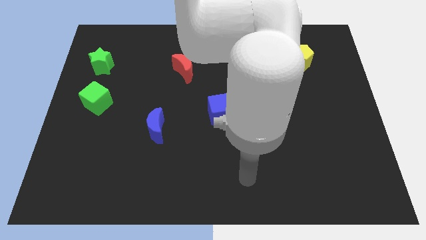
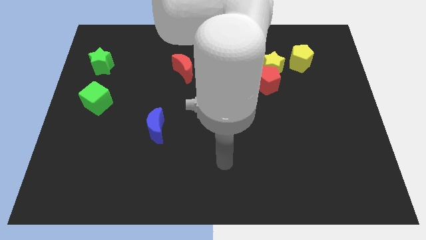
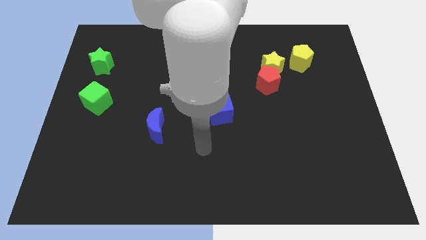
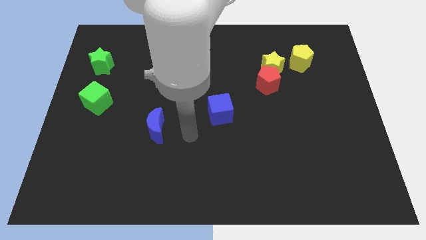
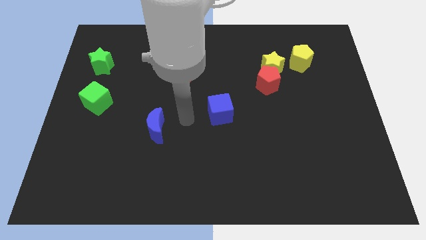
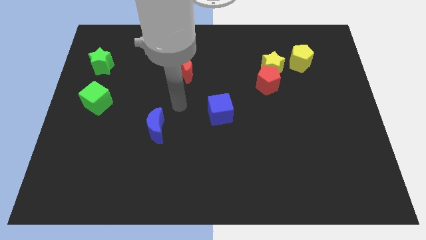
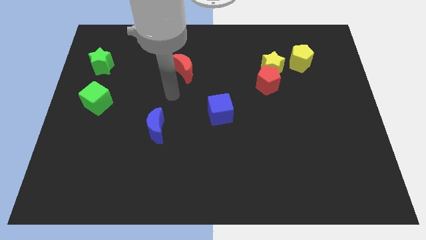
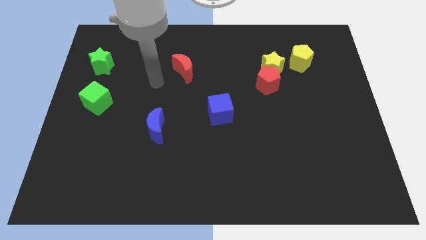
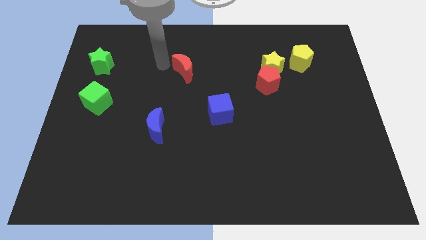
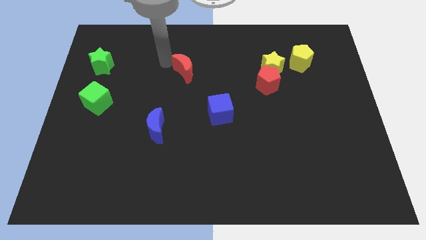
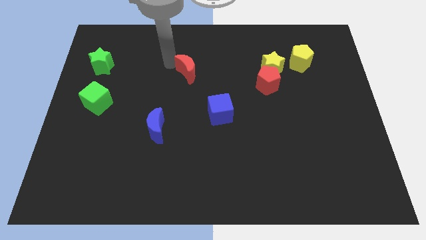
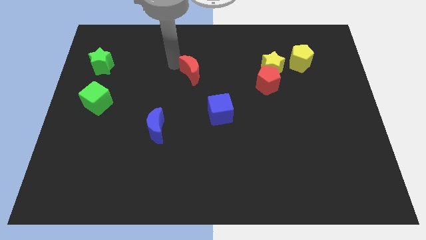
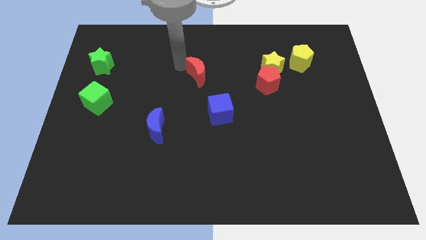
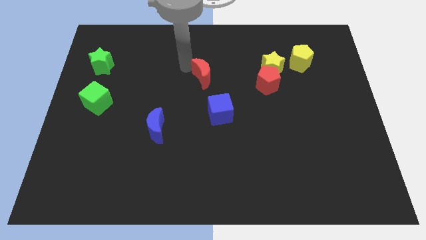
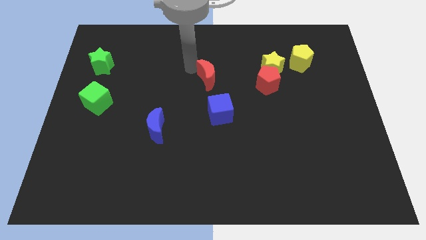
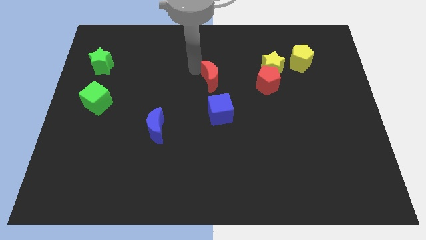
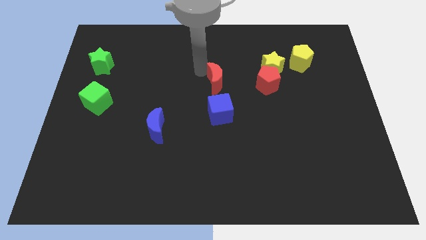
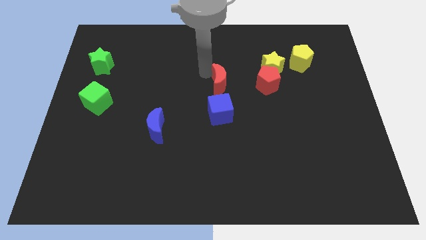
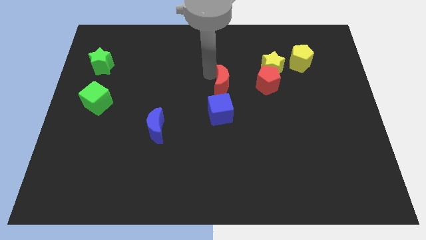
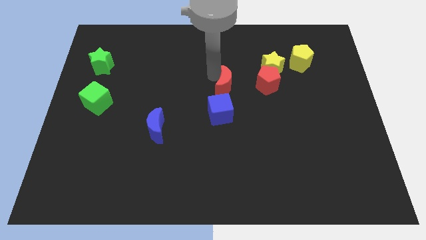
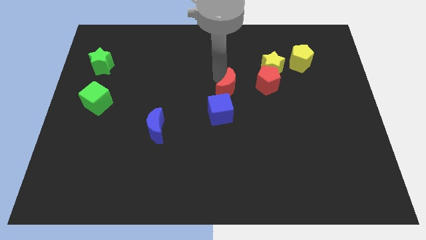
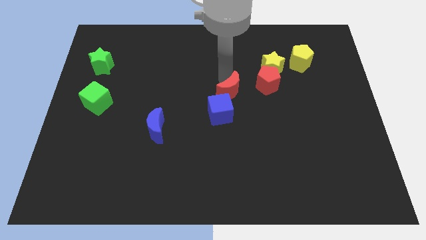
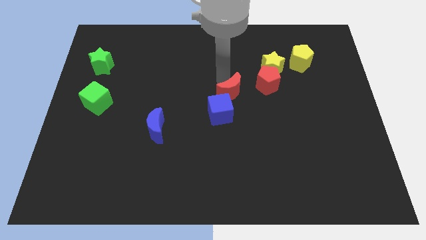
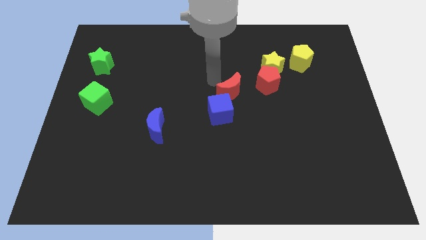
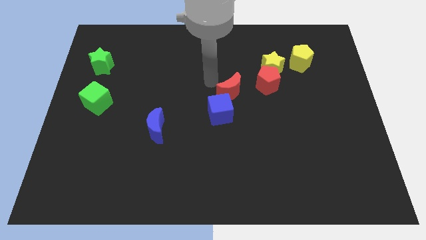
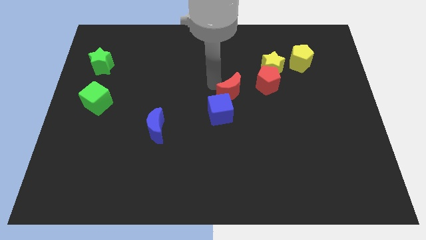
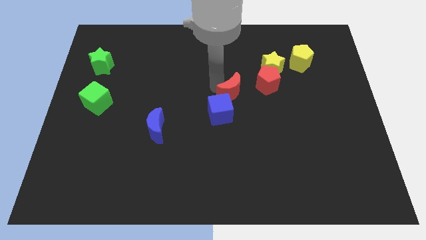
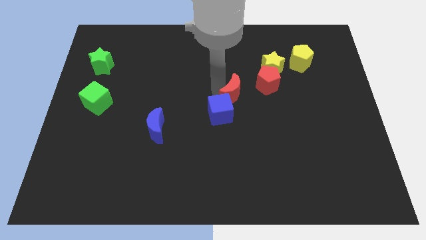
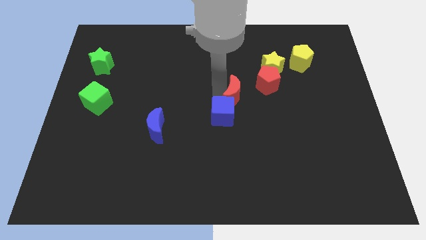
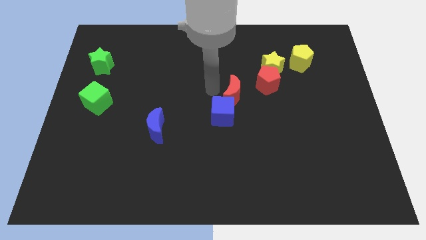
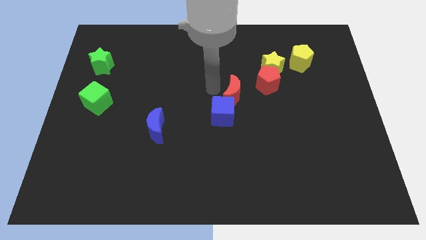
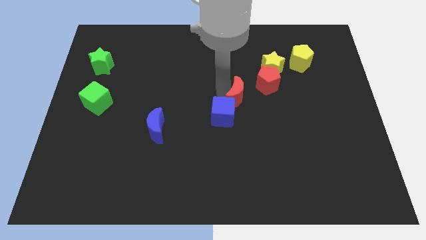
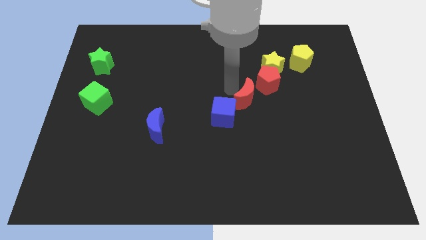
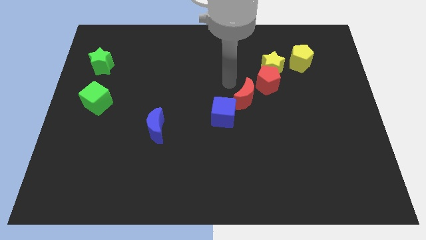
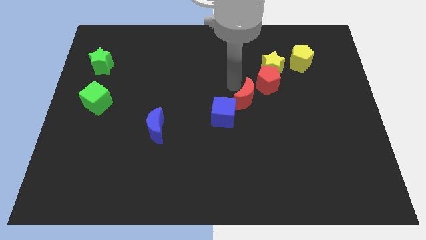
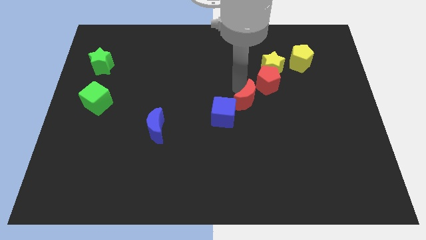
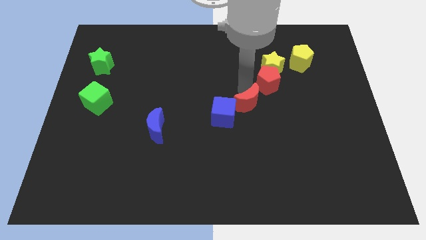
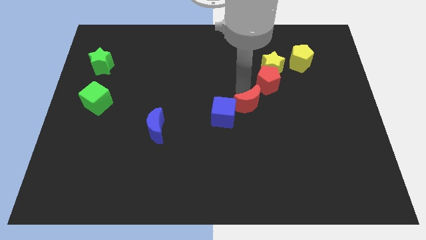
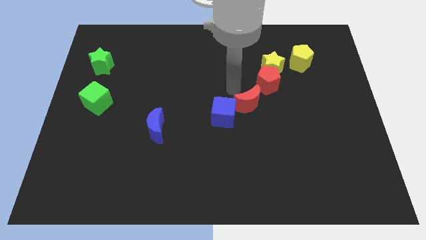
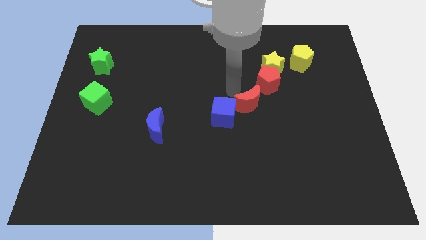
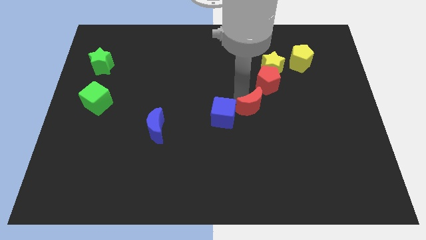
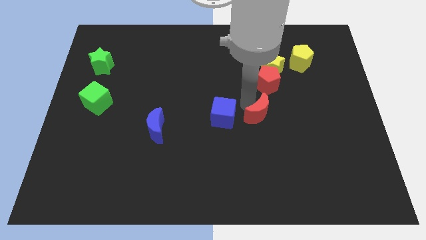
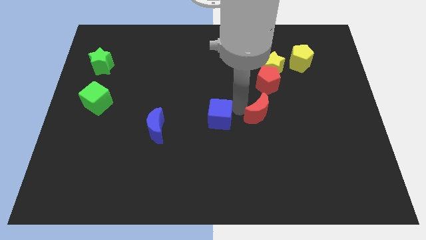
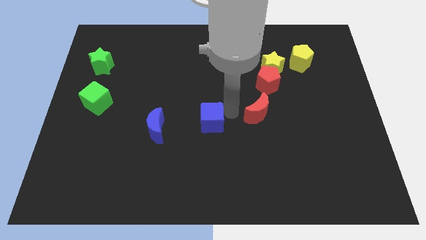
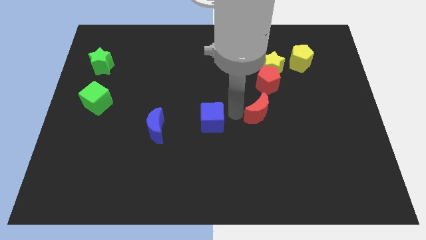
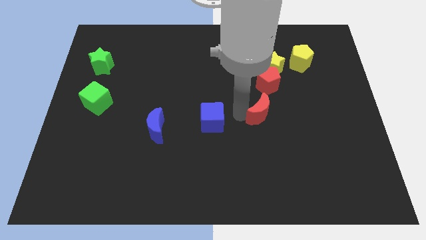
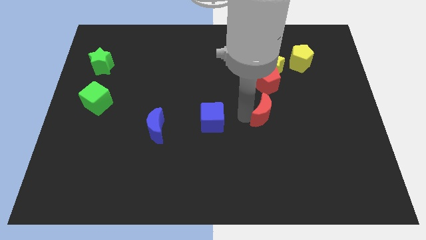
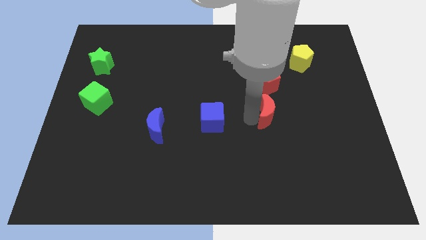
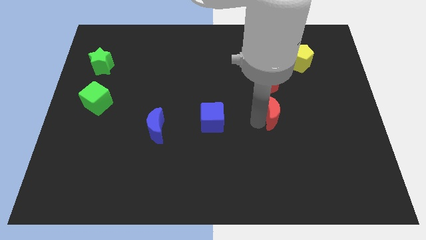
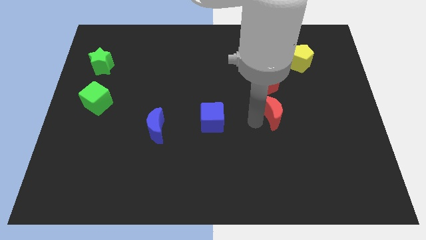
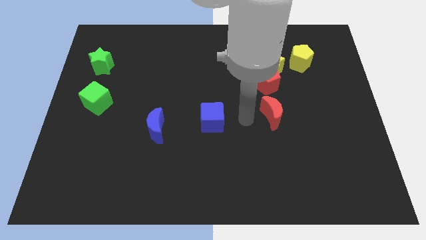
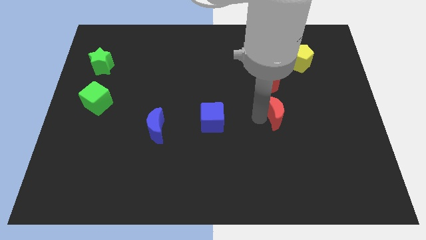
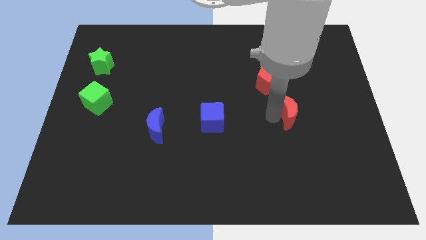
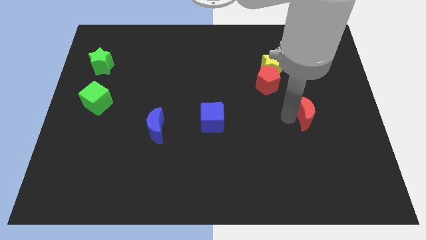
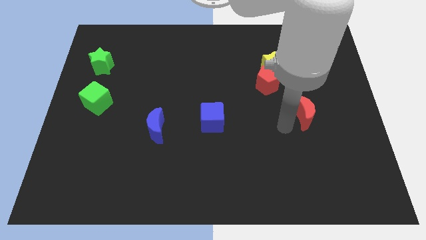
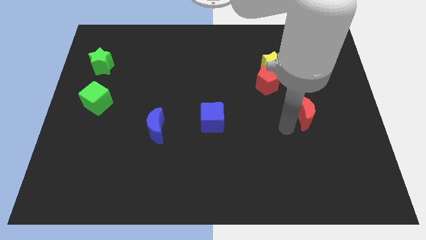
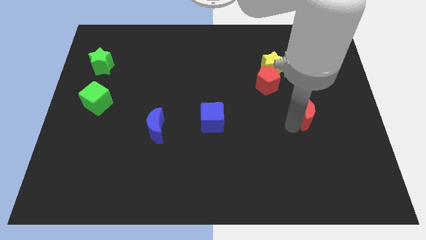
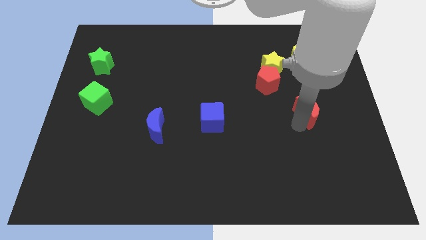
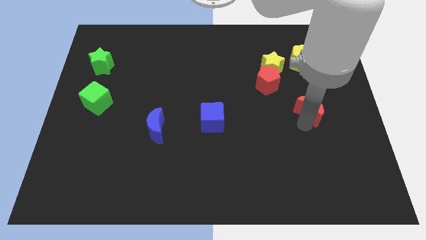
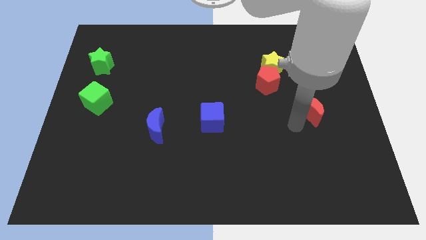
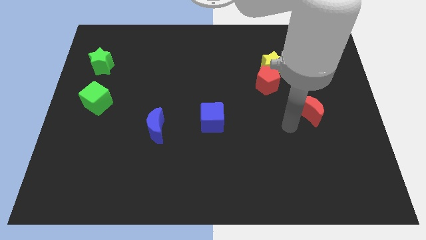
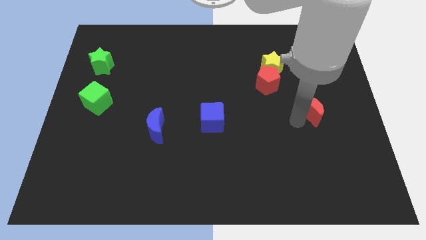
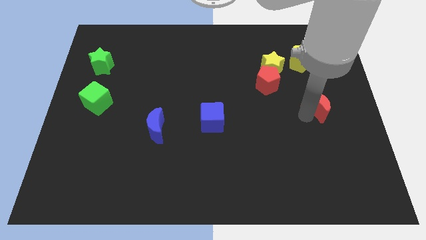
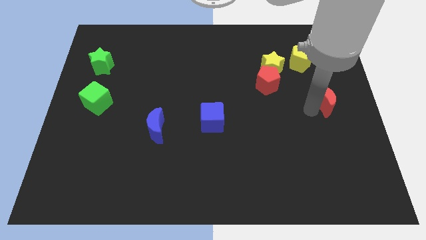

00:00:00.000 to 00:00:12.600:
push the red moon to the center right
